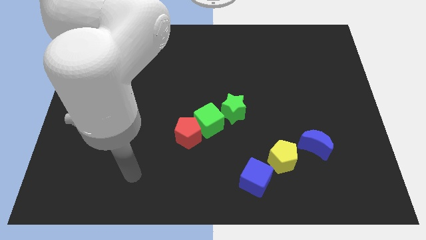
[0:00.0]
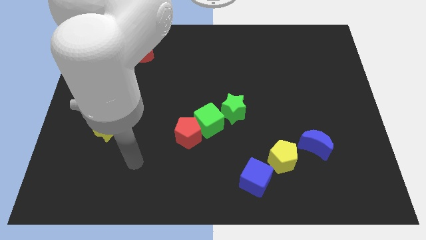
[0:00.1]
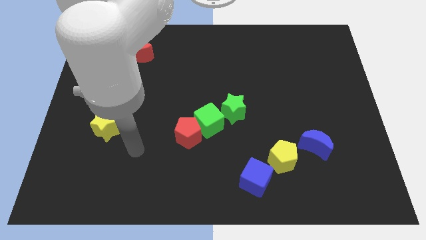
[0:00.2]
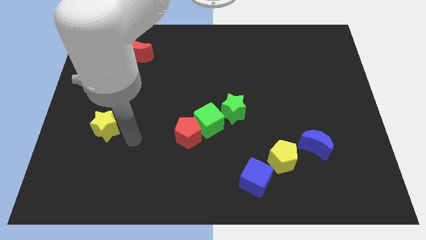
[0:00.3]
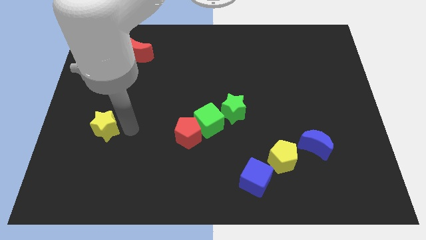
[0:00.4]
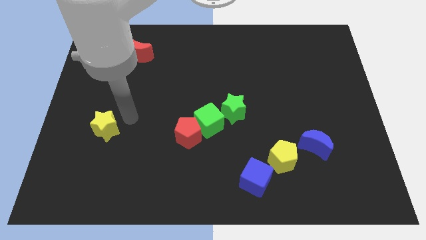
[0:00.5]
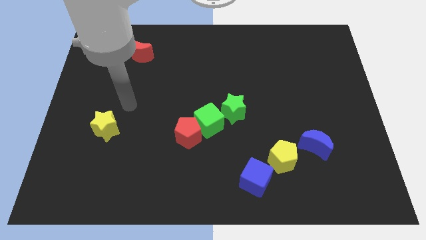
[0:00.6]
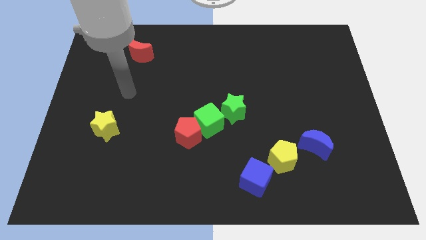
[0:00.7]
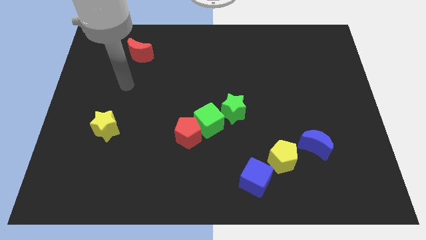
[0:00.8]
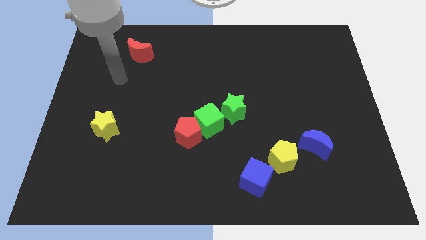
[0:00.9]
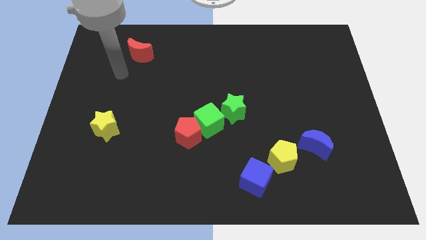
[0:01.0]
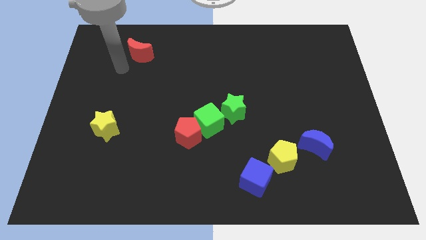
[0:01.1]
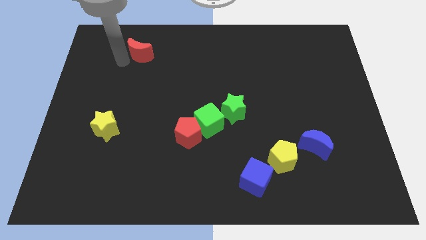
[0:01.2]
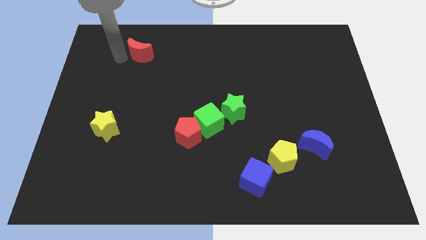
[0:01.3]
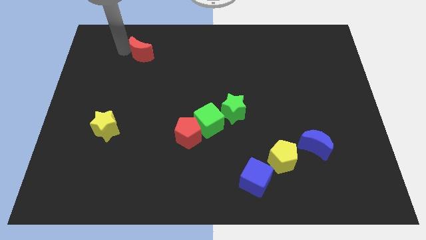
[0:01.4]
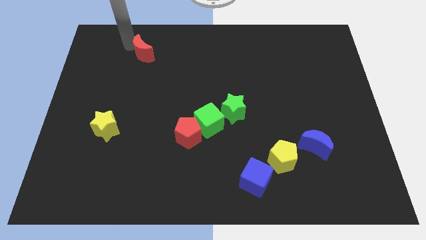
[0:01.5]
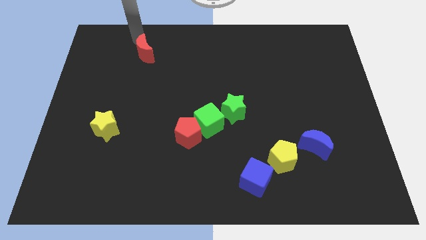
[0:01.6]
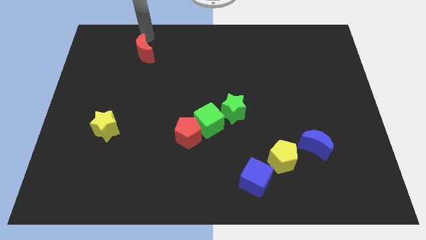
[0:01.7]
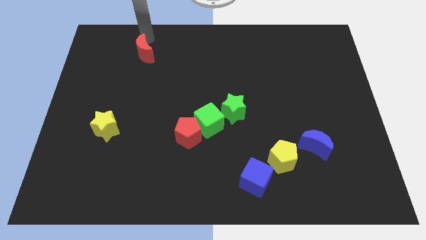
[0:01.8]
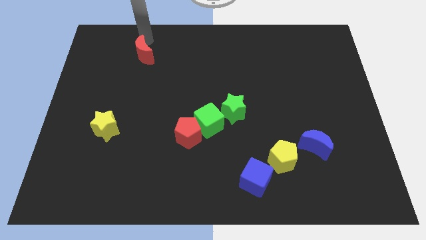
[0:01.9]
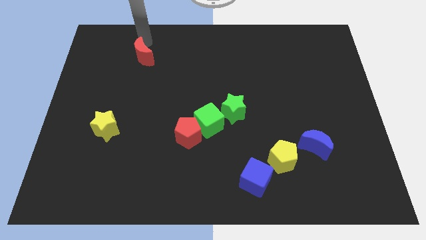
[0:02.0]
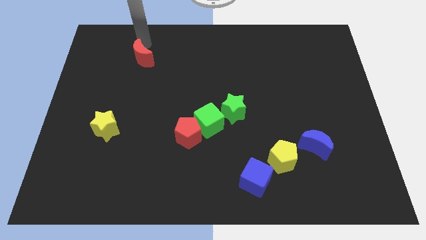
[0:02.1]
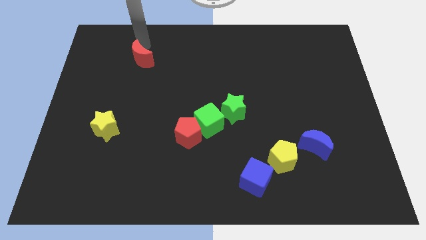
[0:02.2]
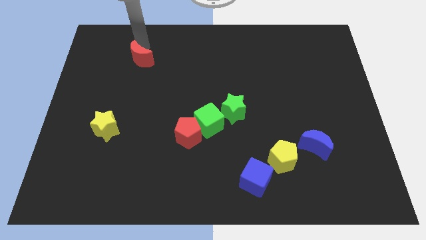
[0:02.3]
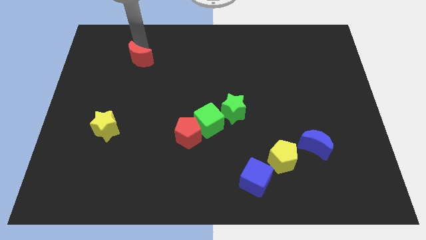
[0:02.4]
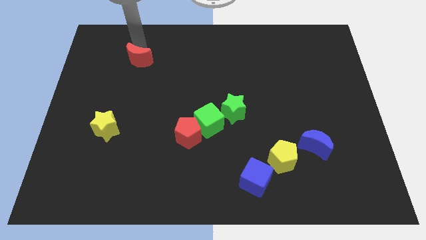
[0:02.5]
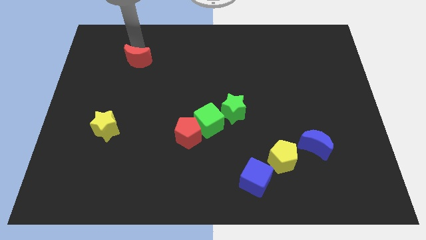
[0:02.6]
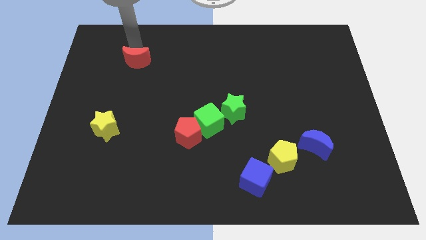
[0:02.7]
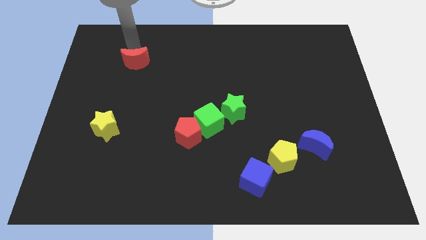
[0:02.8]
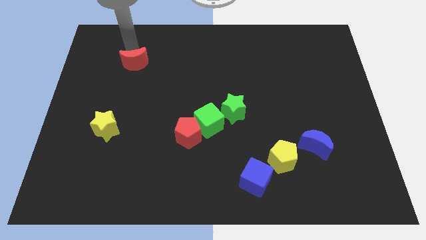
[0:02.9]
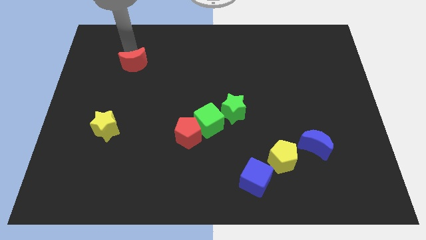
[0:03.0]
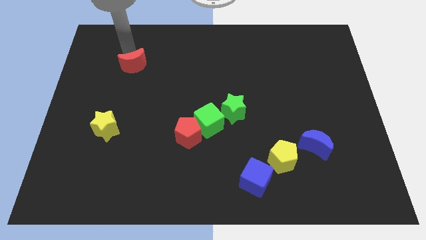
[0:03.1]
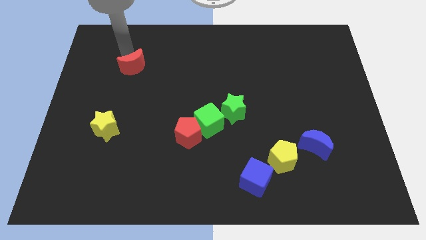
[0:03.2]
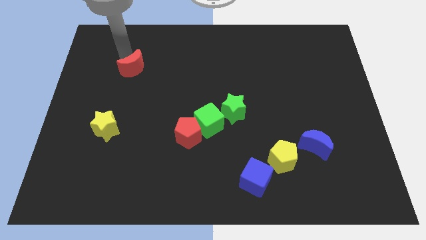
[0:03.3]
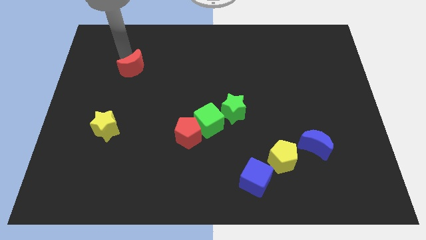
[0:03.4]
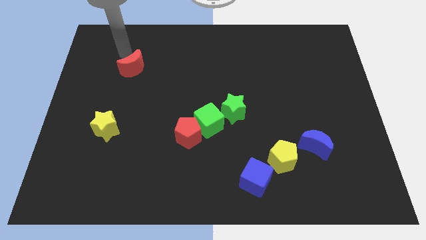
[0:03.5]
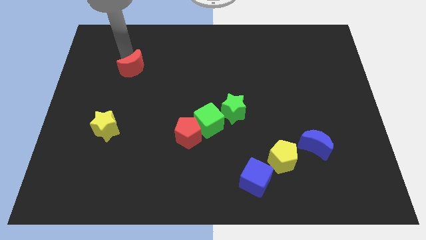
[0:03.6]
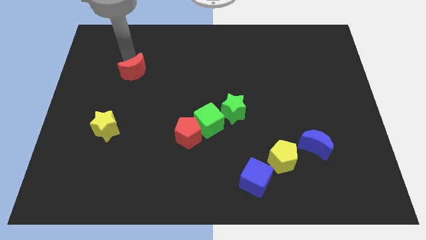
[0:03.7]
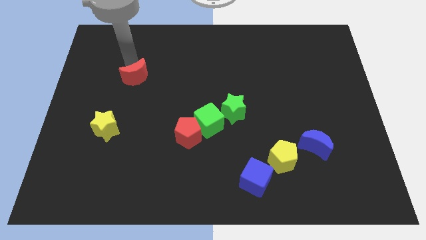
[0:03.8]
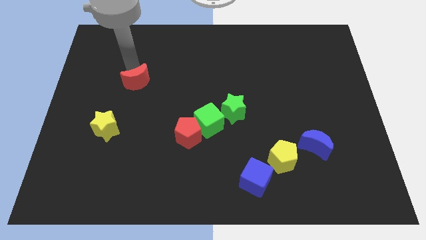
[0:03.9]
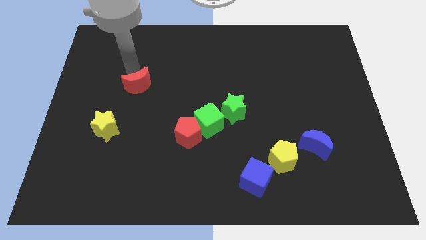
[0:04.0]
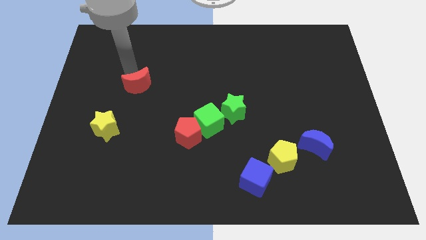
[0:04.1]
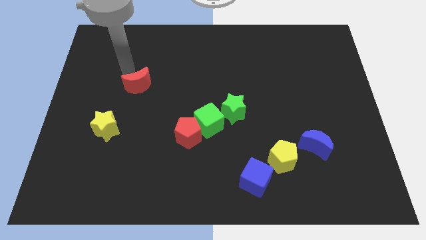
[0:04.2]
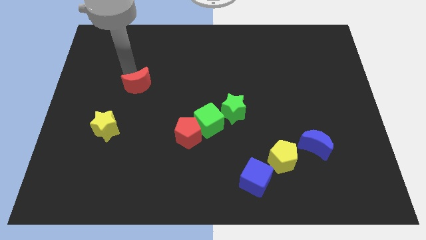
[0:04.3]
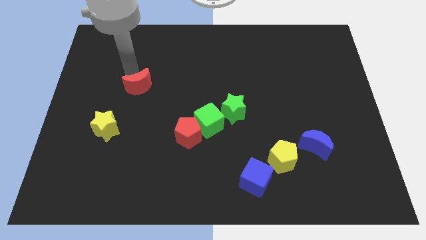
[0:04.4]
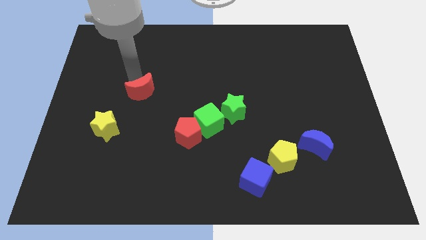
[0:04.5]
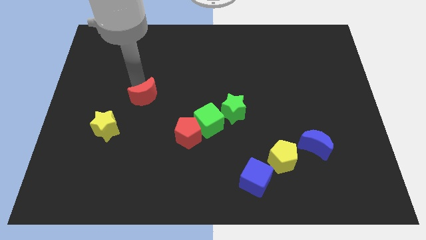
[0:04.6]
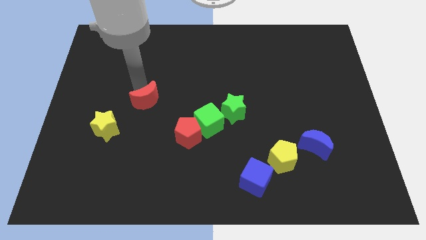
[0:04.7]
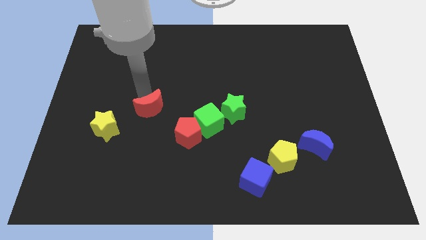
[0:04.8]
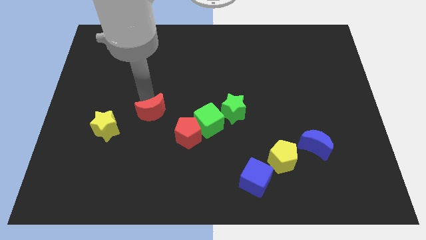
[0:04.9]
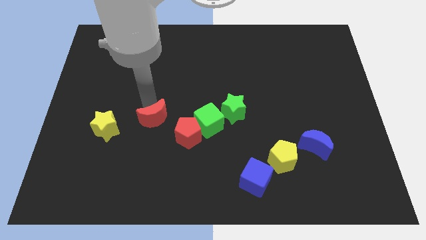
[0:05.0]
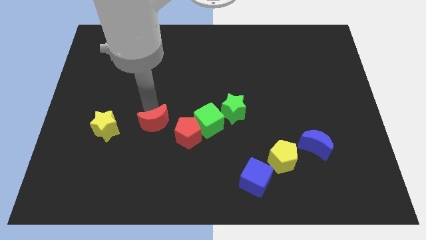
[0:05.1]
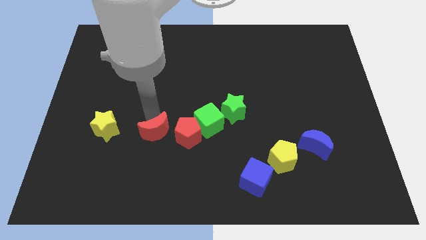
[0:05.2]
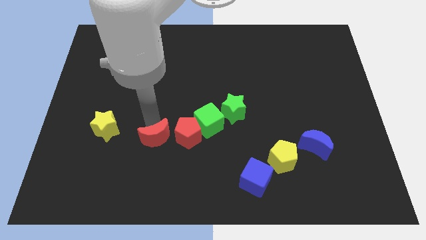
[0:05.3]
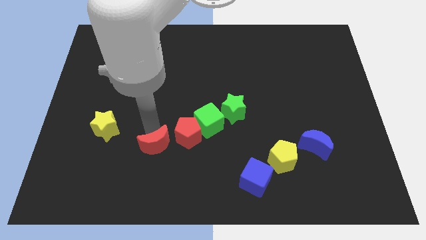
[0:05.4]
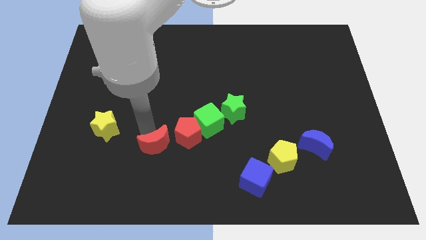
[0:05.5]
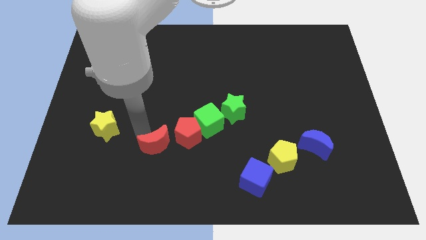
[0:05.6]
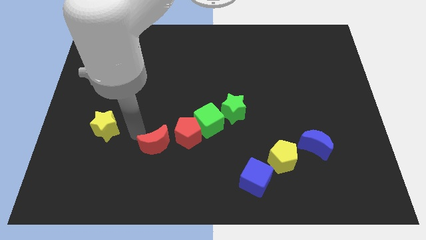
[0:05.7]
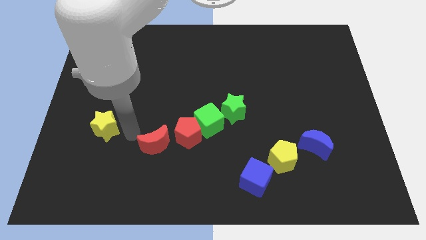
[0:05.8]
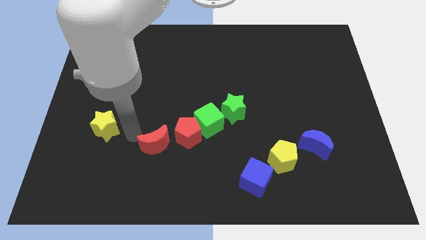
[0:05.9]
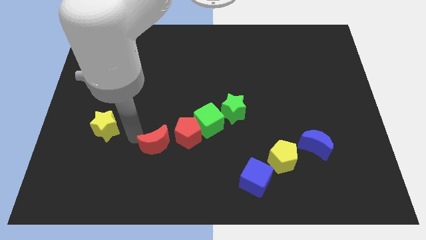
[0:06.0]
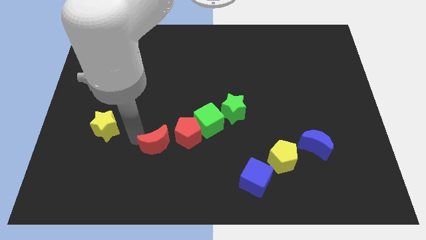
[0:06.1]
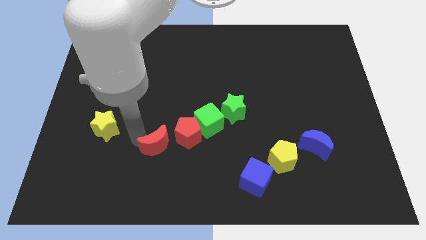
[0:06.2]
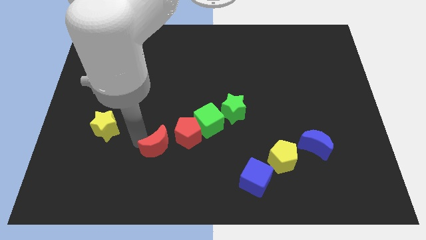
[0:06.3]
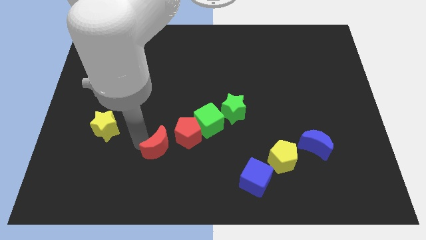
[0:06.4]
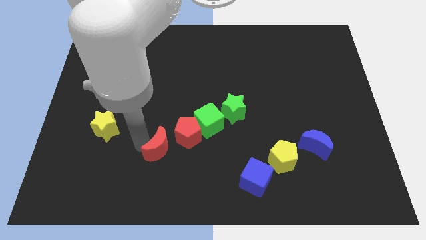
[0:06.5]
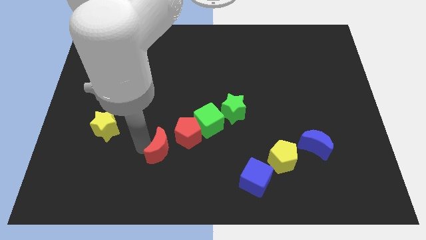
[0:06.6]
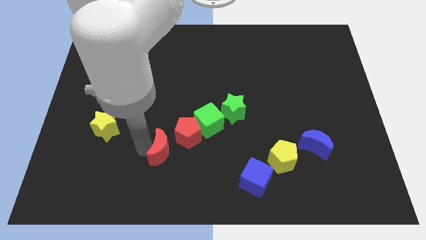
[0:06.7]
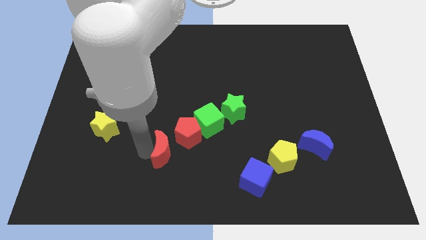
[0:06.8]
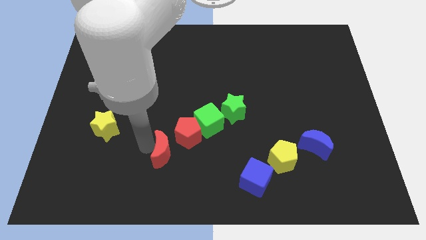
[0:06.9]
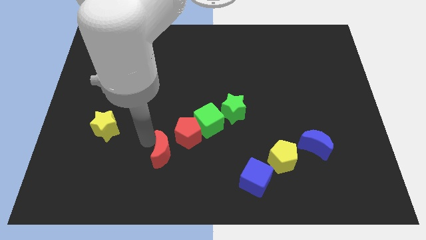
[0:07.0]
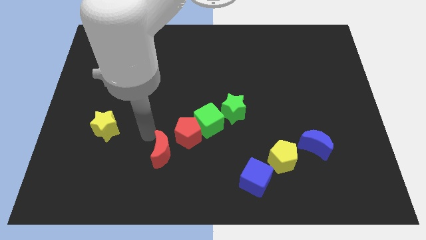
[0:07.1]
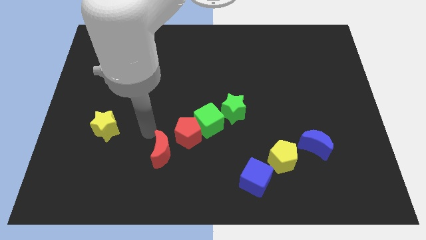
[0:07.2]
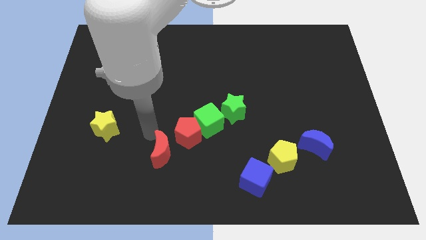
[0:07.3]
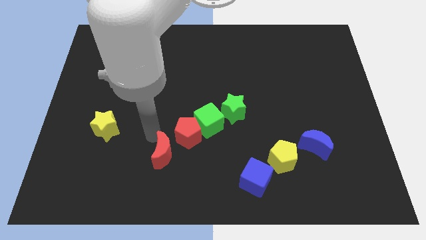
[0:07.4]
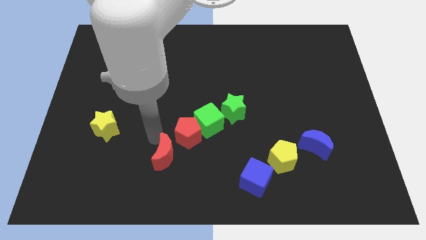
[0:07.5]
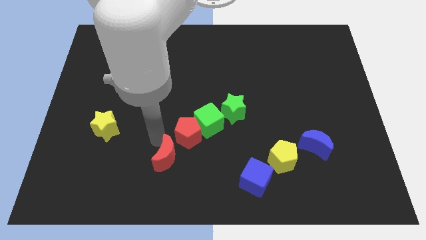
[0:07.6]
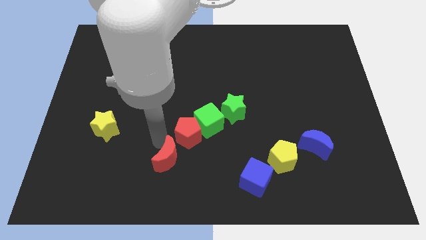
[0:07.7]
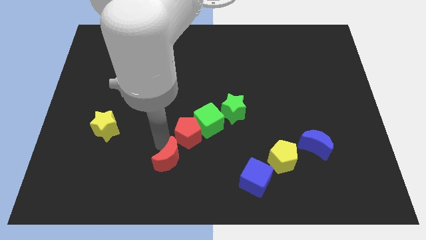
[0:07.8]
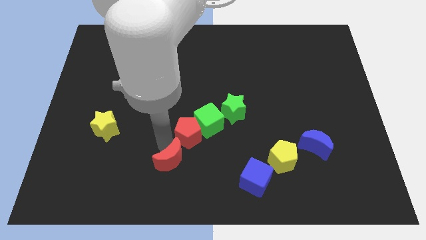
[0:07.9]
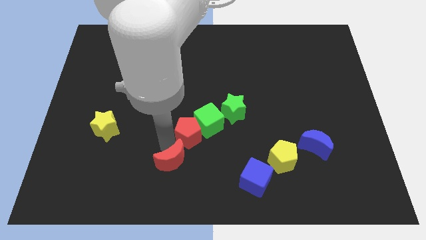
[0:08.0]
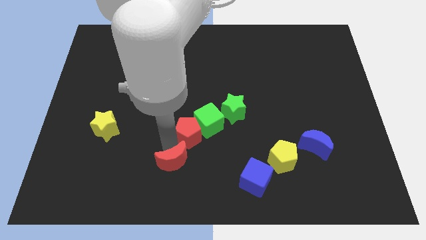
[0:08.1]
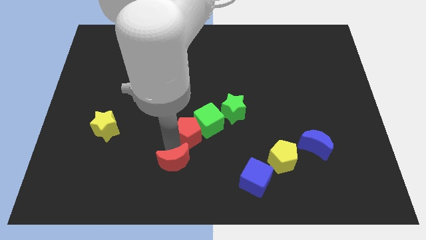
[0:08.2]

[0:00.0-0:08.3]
slide the red moon to the bottom side
